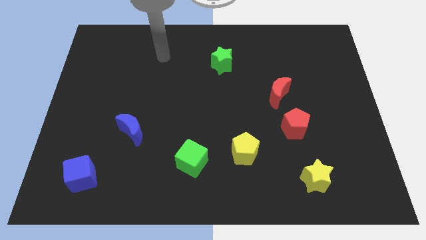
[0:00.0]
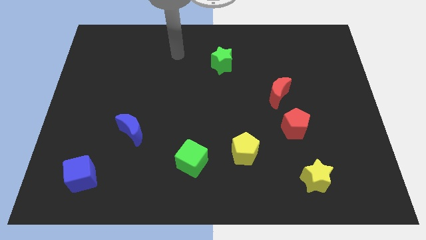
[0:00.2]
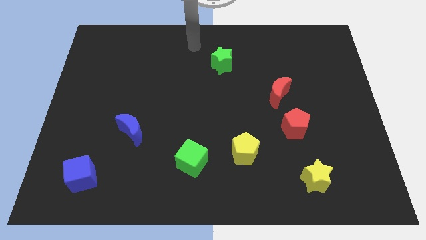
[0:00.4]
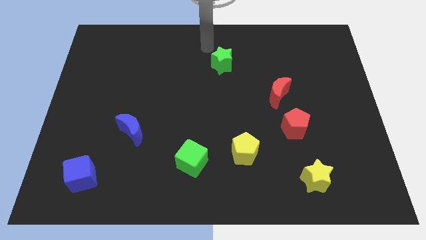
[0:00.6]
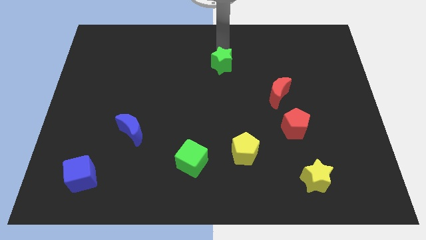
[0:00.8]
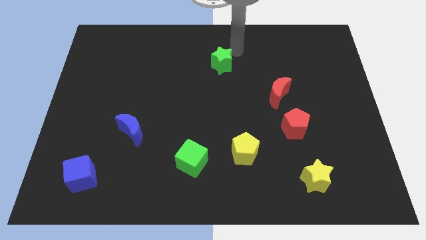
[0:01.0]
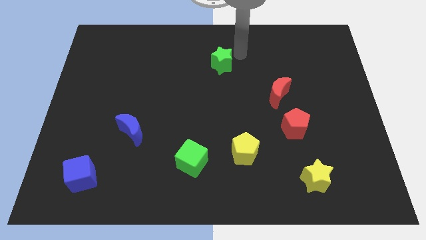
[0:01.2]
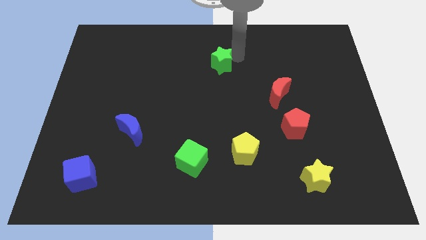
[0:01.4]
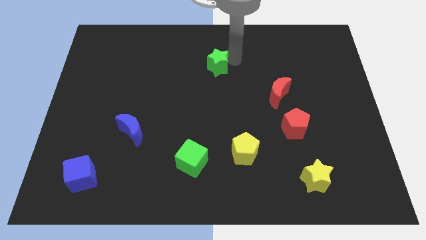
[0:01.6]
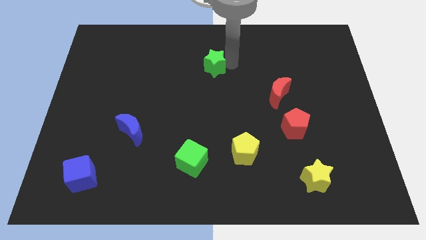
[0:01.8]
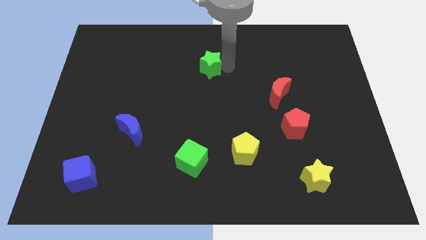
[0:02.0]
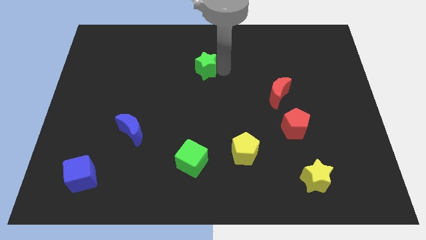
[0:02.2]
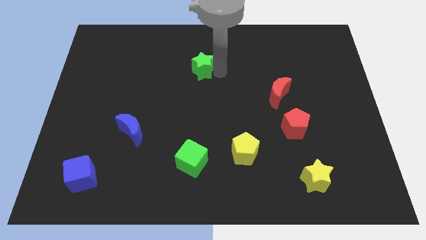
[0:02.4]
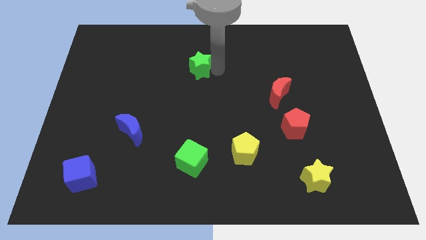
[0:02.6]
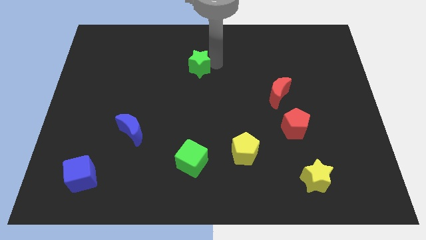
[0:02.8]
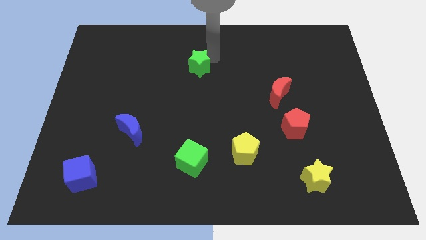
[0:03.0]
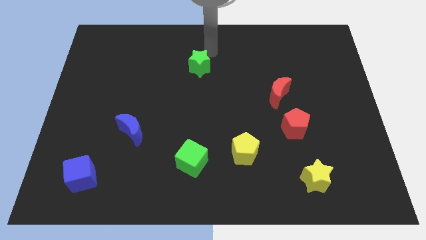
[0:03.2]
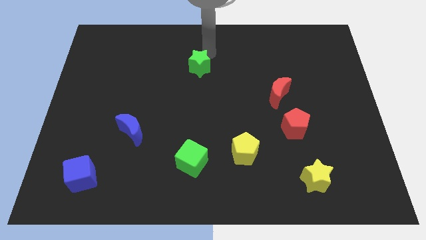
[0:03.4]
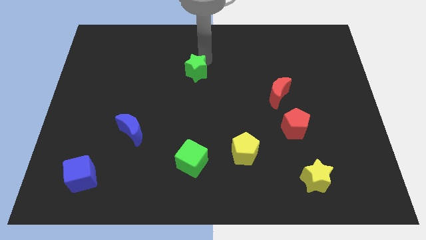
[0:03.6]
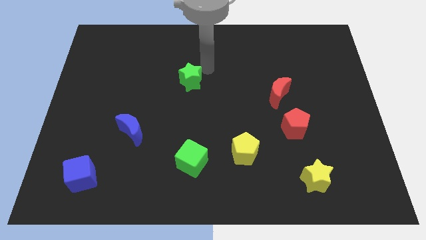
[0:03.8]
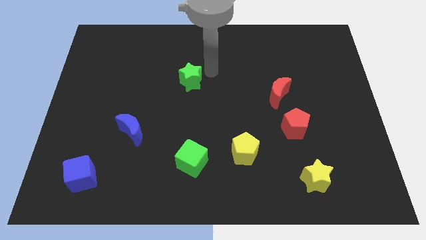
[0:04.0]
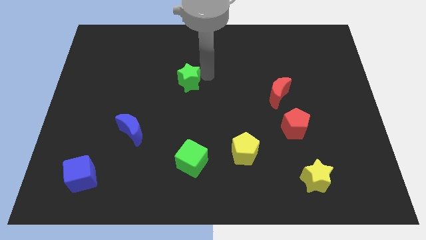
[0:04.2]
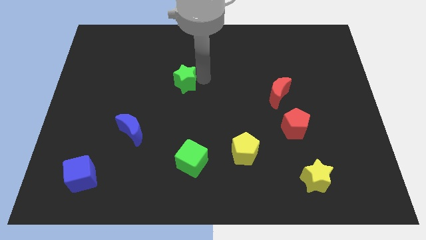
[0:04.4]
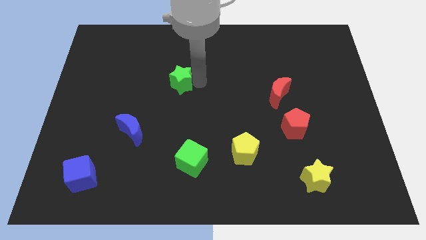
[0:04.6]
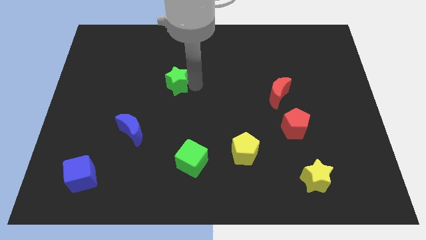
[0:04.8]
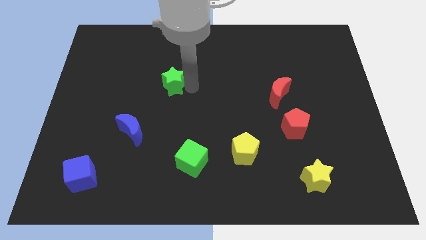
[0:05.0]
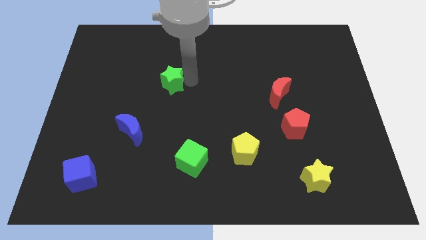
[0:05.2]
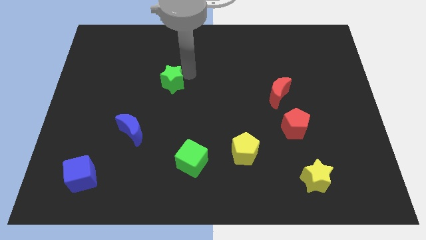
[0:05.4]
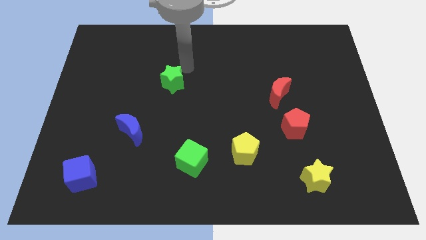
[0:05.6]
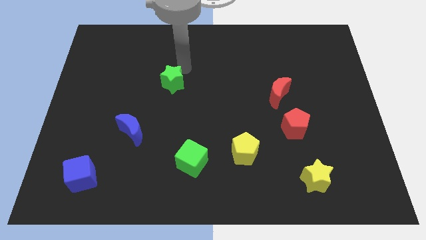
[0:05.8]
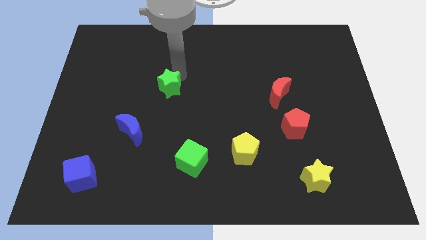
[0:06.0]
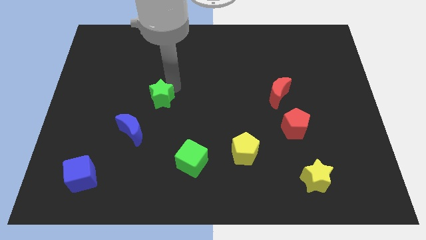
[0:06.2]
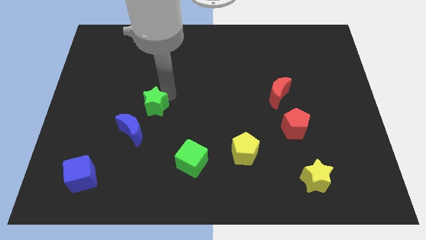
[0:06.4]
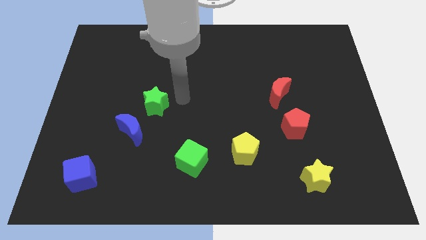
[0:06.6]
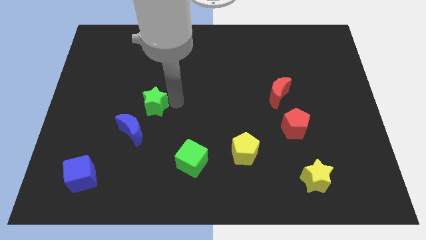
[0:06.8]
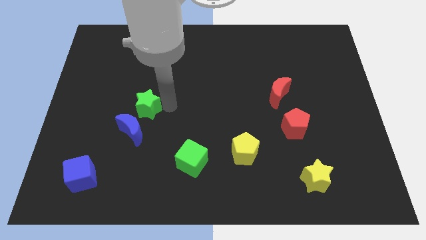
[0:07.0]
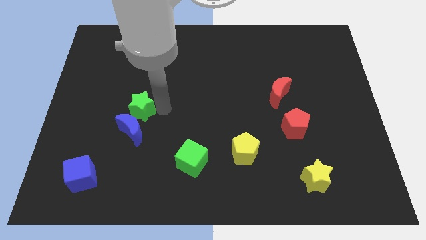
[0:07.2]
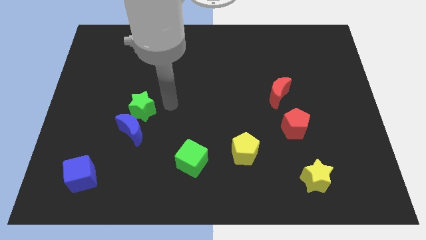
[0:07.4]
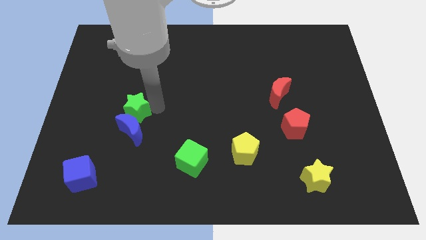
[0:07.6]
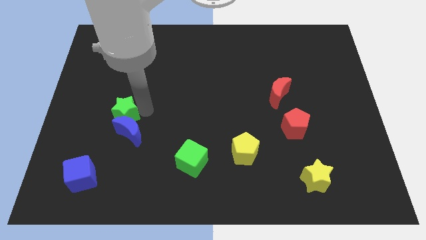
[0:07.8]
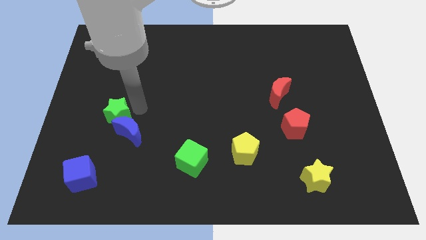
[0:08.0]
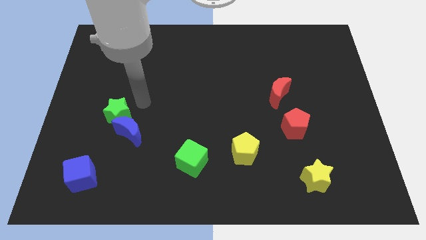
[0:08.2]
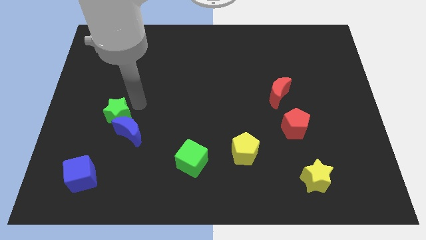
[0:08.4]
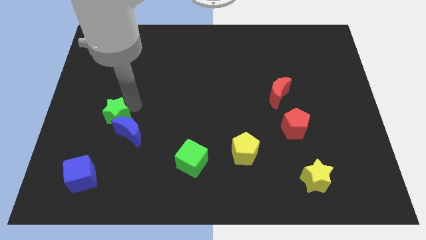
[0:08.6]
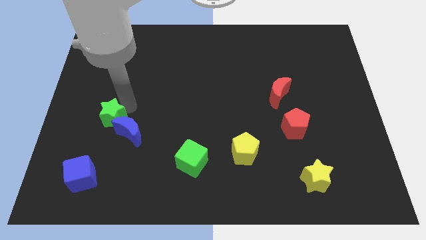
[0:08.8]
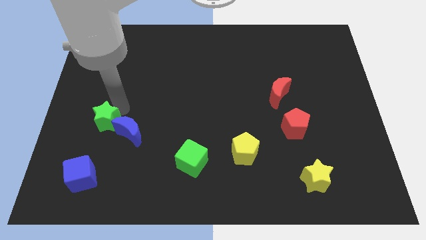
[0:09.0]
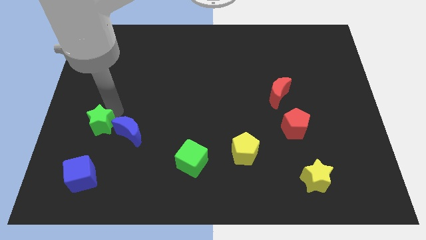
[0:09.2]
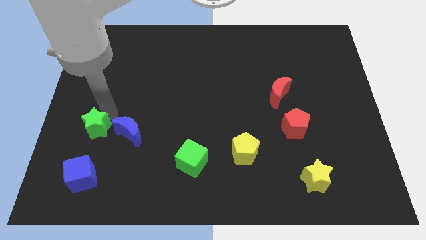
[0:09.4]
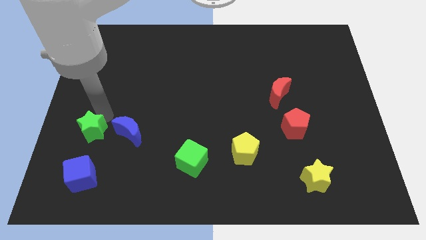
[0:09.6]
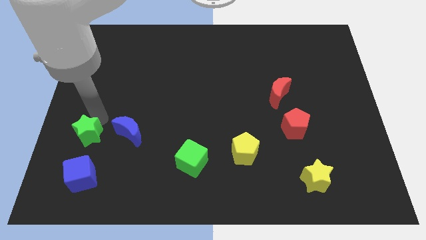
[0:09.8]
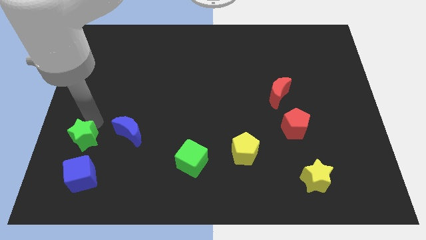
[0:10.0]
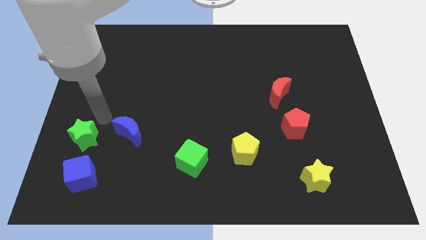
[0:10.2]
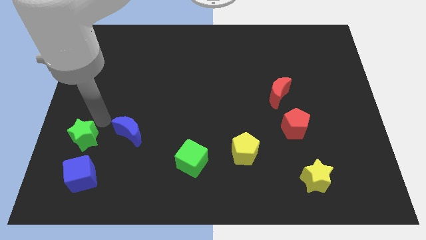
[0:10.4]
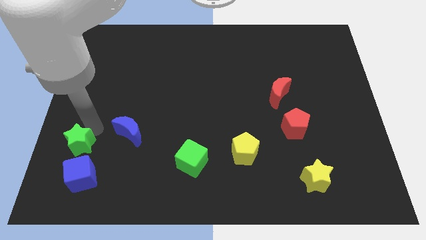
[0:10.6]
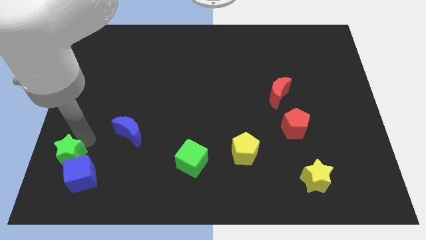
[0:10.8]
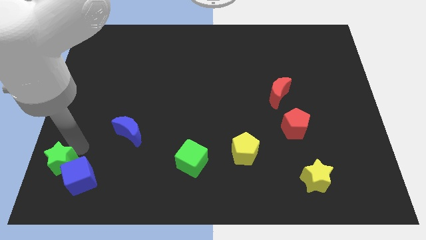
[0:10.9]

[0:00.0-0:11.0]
slide the green star to the bottom left corner
